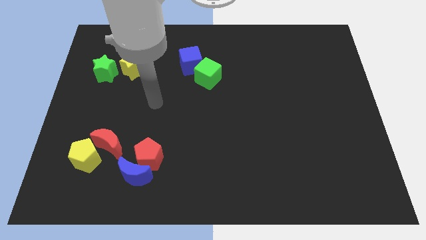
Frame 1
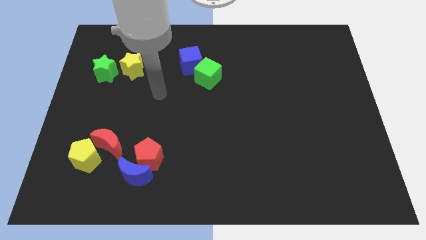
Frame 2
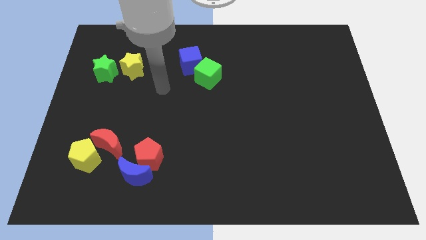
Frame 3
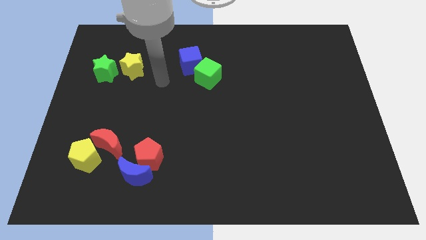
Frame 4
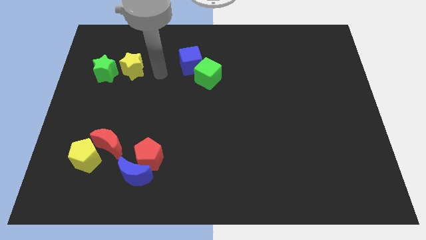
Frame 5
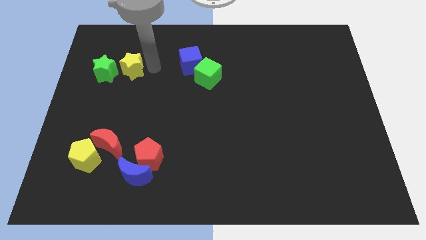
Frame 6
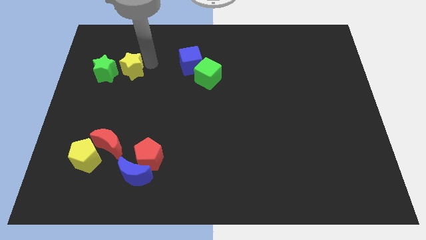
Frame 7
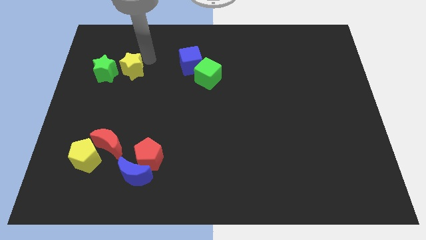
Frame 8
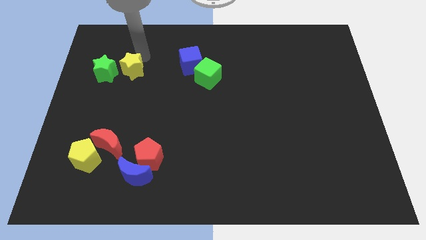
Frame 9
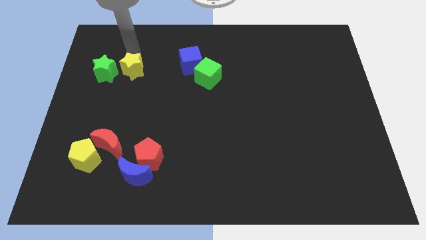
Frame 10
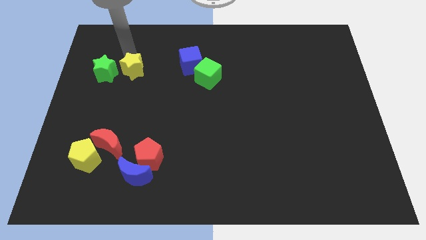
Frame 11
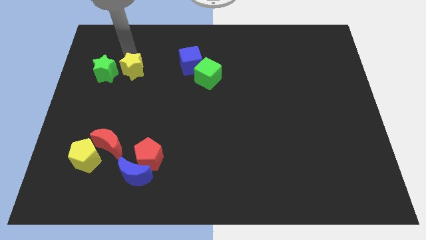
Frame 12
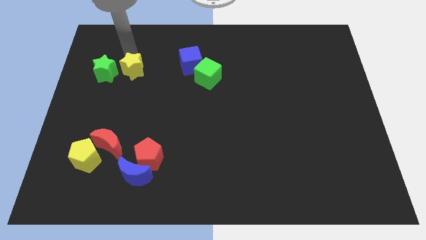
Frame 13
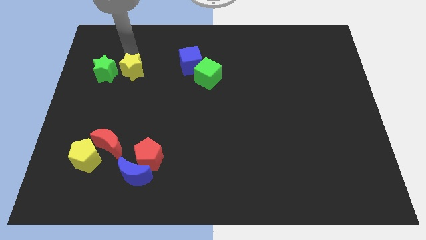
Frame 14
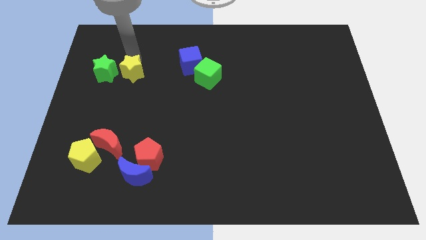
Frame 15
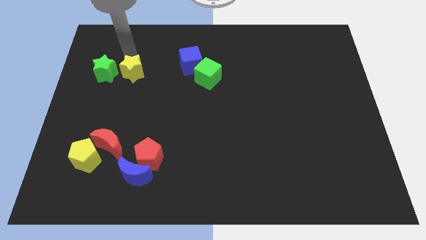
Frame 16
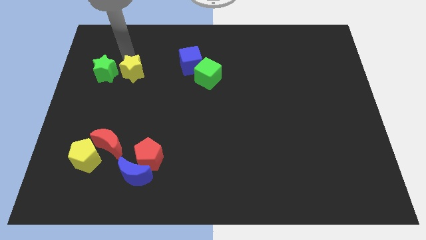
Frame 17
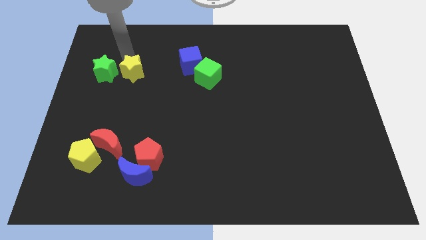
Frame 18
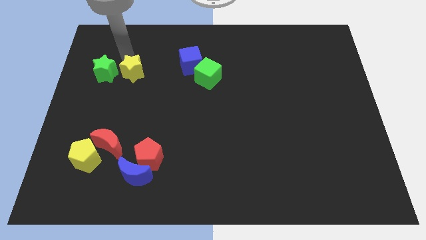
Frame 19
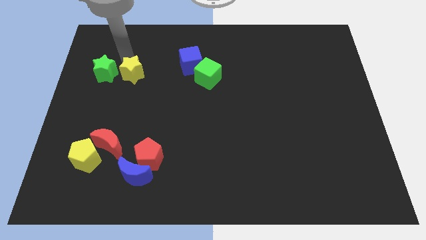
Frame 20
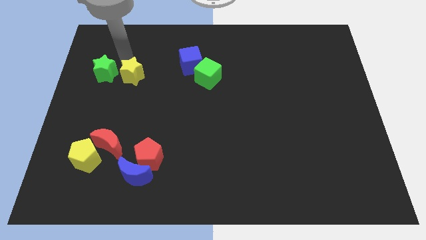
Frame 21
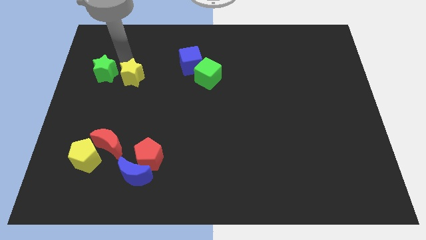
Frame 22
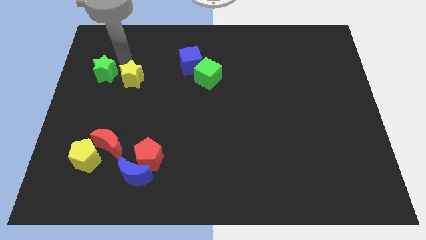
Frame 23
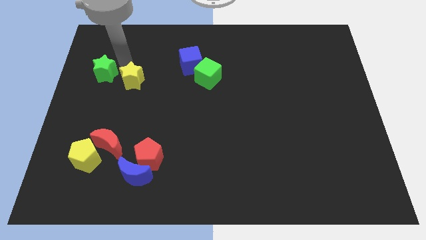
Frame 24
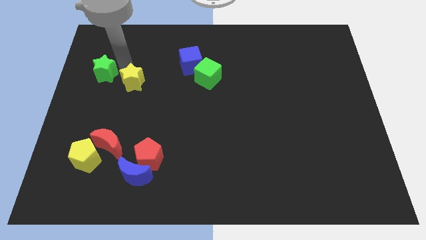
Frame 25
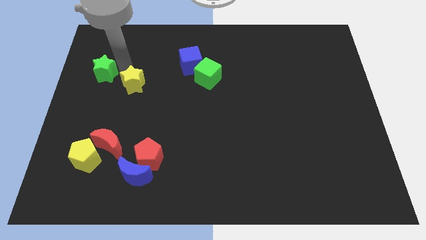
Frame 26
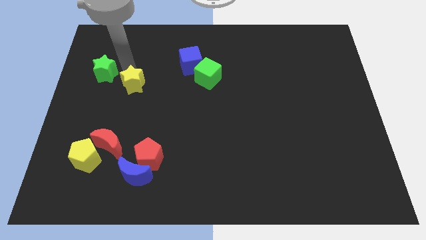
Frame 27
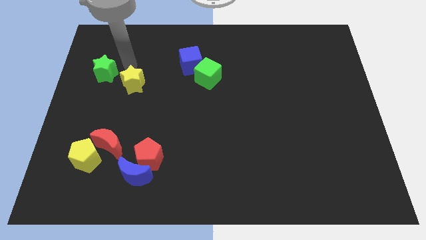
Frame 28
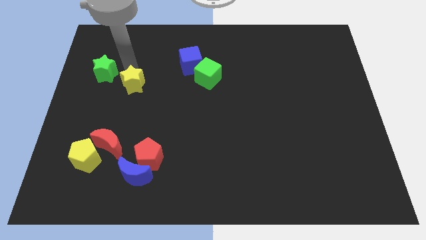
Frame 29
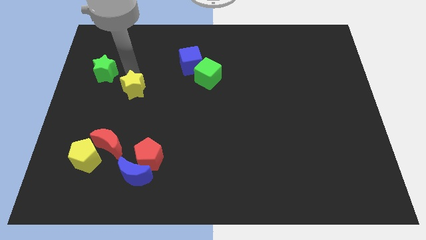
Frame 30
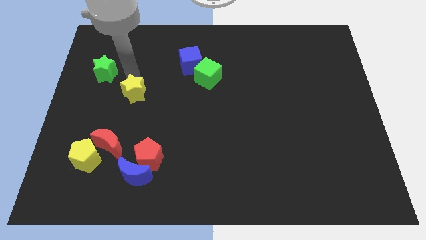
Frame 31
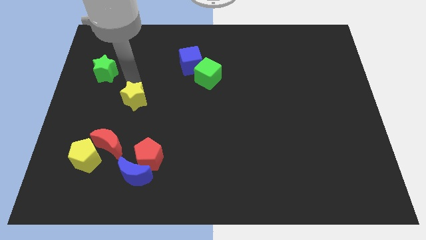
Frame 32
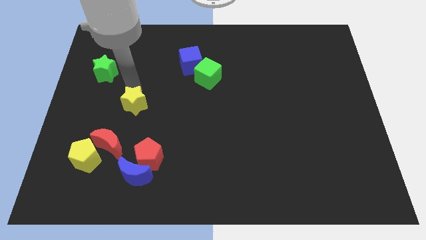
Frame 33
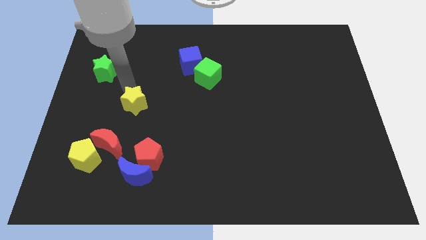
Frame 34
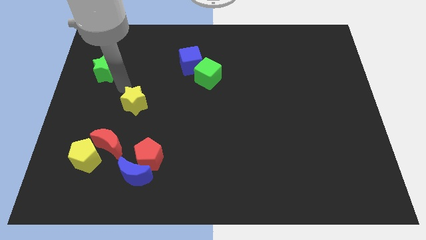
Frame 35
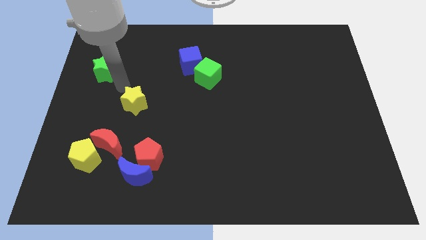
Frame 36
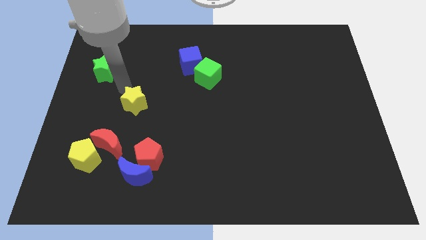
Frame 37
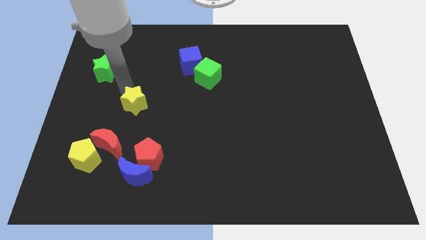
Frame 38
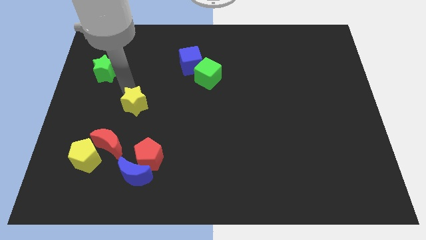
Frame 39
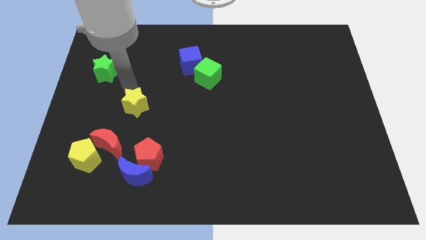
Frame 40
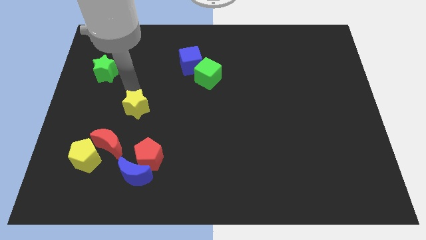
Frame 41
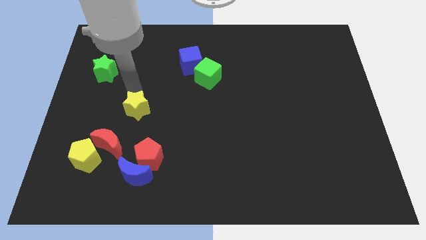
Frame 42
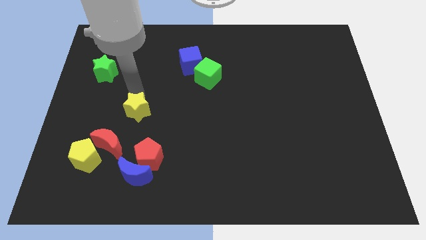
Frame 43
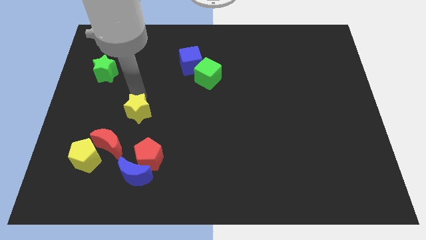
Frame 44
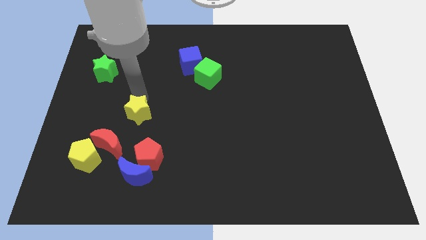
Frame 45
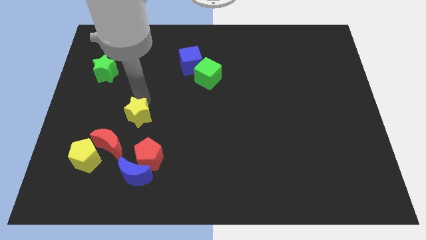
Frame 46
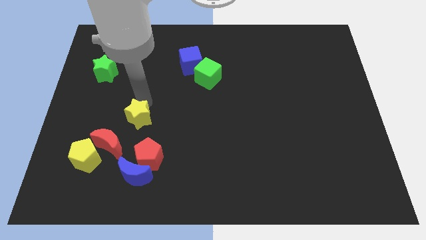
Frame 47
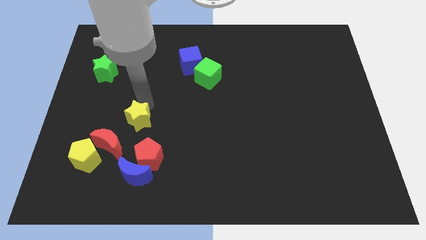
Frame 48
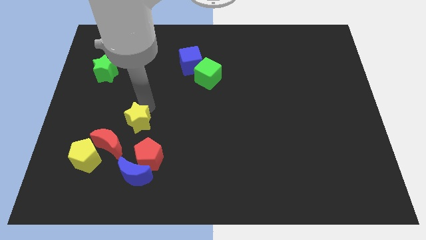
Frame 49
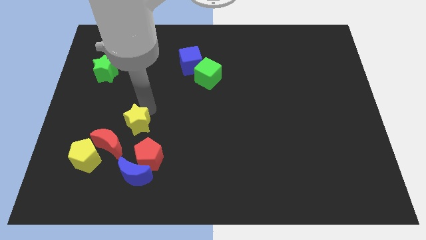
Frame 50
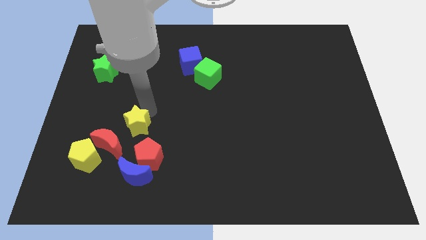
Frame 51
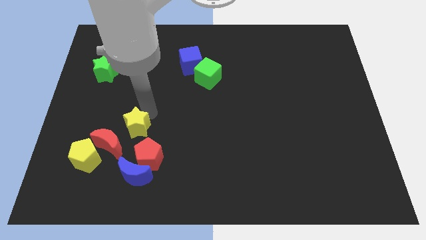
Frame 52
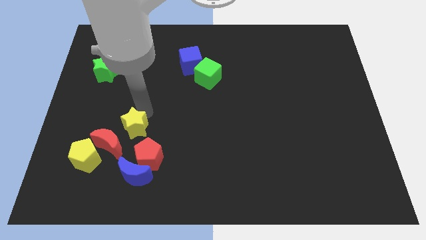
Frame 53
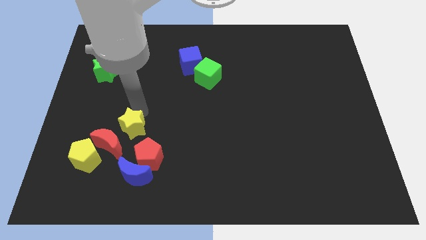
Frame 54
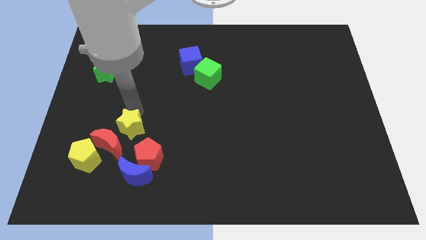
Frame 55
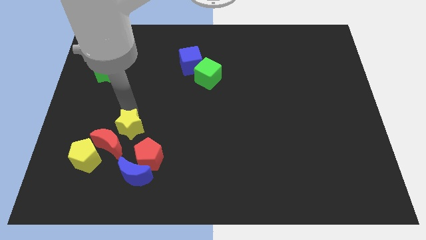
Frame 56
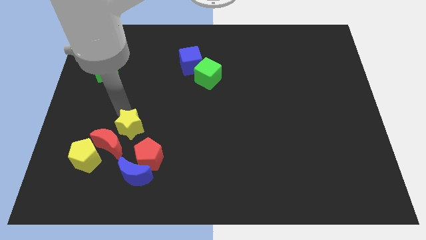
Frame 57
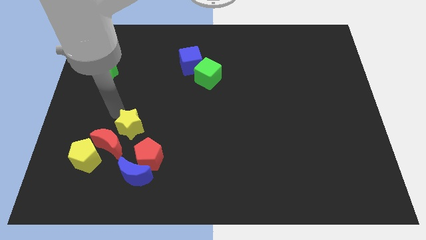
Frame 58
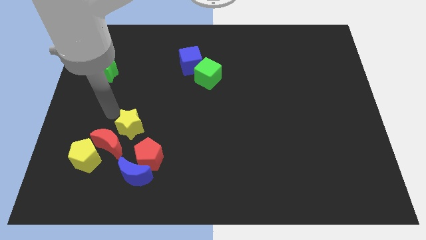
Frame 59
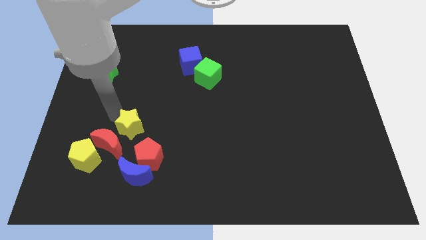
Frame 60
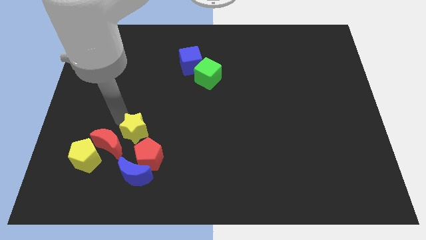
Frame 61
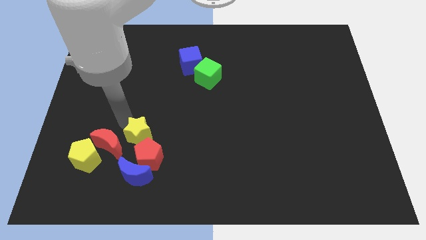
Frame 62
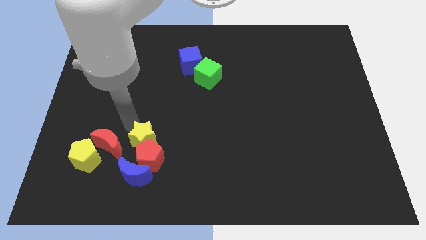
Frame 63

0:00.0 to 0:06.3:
slide the yellow star to the red pentagon
